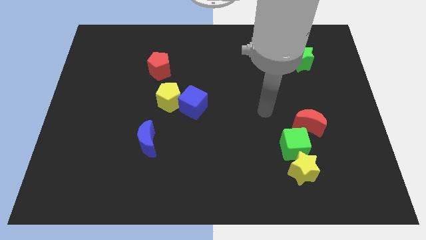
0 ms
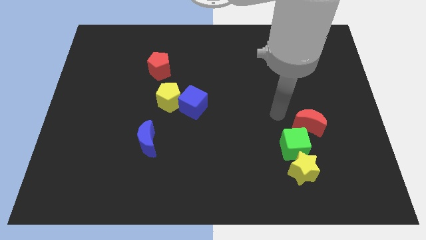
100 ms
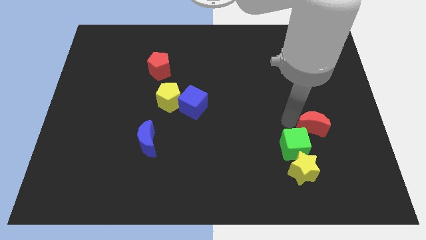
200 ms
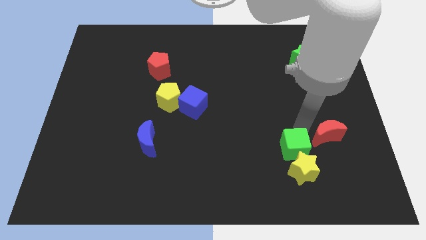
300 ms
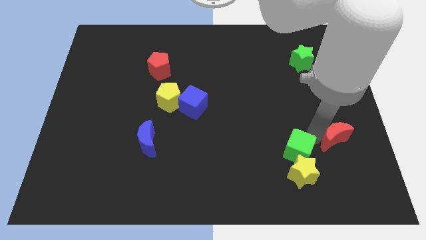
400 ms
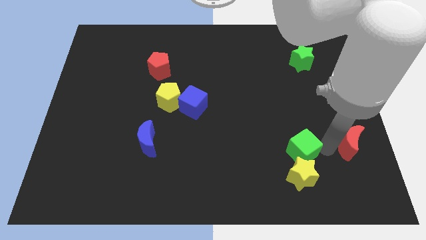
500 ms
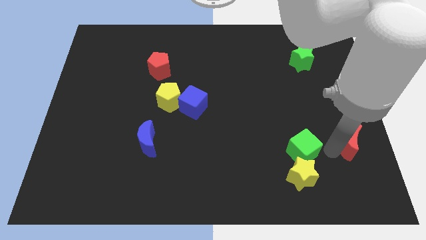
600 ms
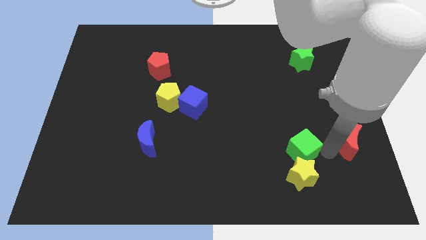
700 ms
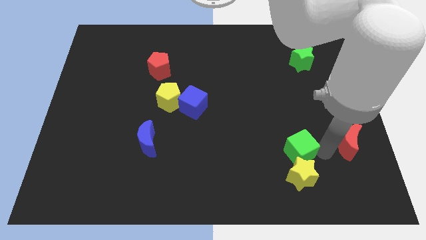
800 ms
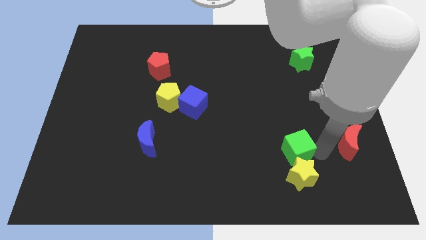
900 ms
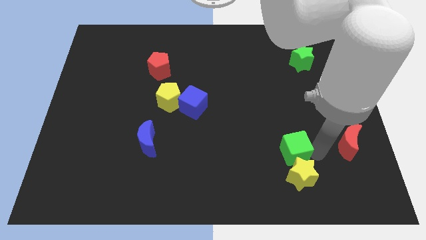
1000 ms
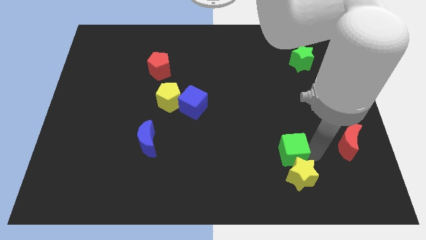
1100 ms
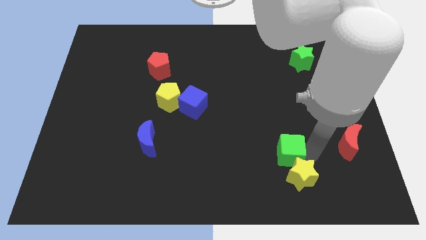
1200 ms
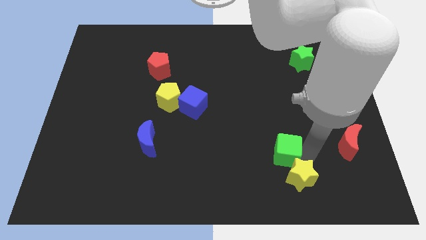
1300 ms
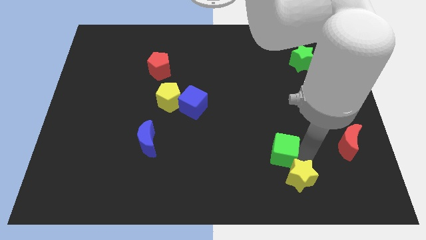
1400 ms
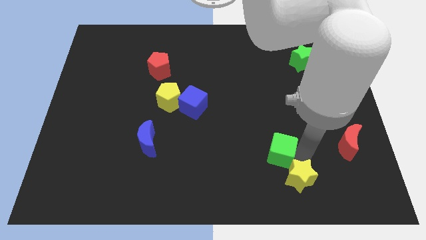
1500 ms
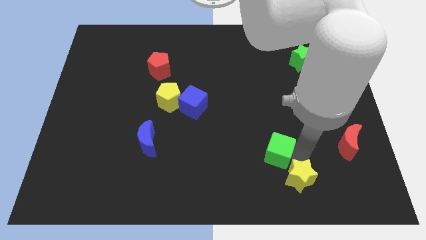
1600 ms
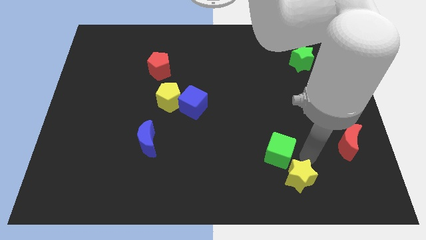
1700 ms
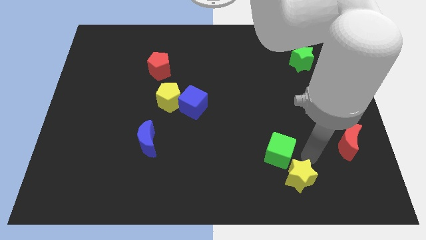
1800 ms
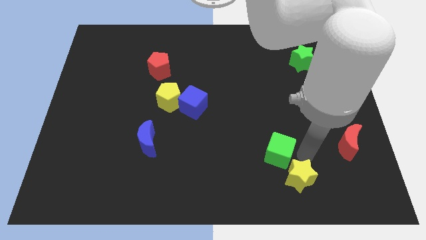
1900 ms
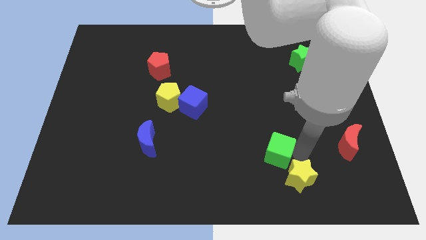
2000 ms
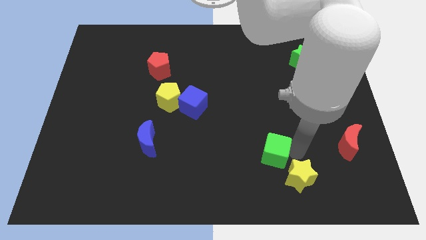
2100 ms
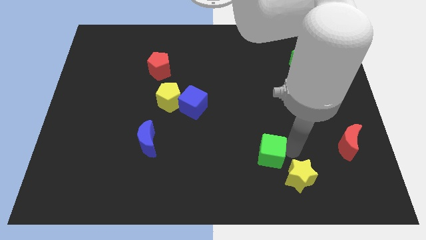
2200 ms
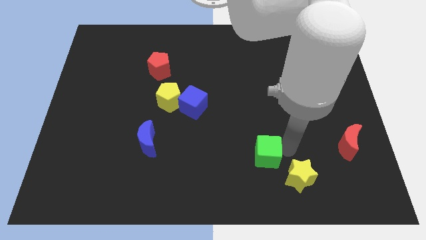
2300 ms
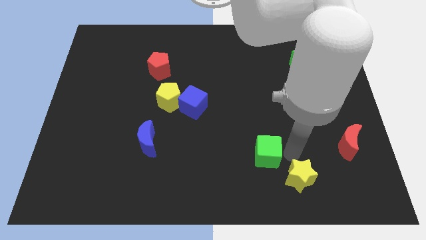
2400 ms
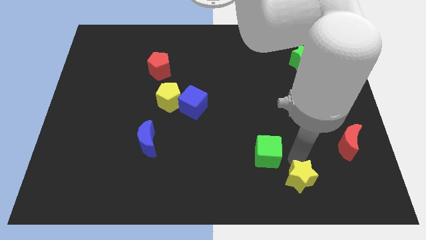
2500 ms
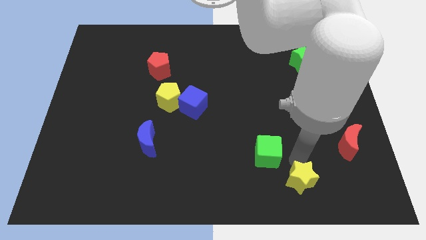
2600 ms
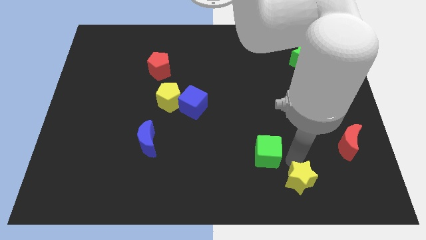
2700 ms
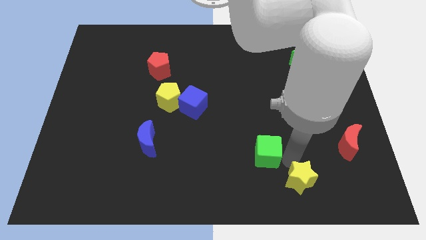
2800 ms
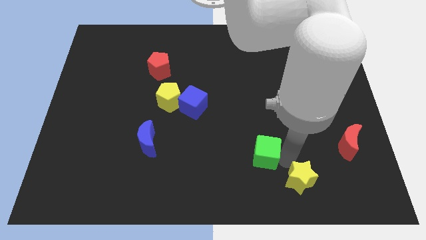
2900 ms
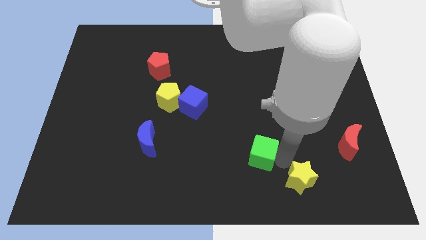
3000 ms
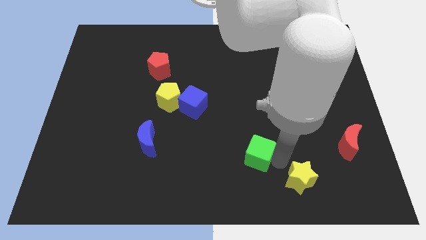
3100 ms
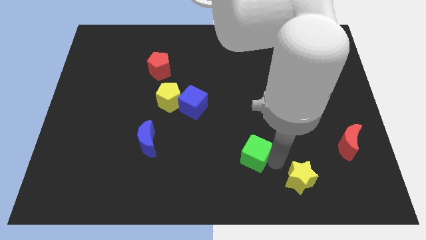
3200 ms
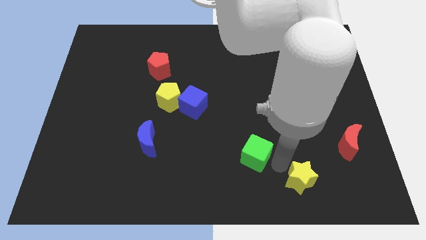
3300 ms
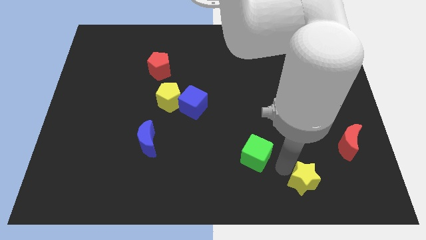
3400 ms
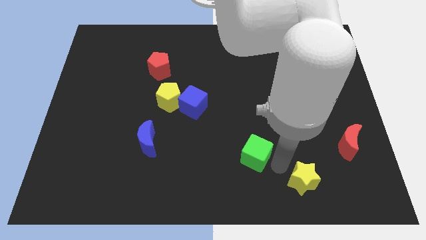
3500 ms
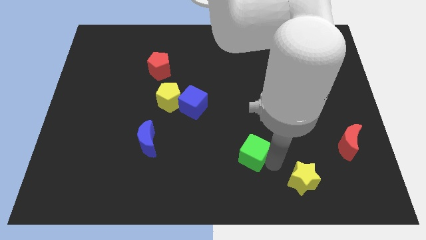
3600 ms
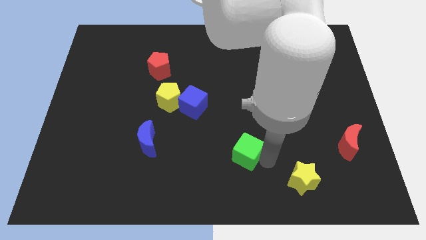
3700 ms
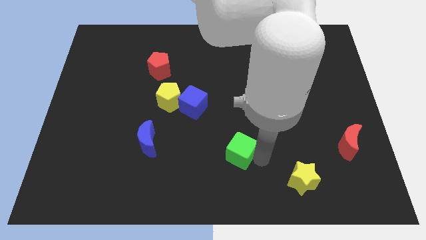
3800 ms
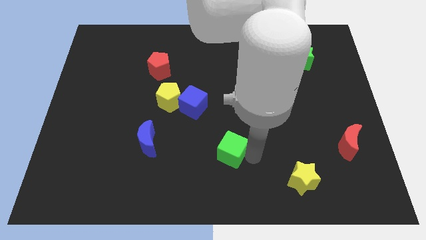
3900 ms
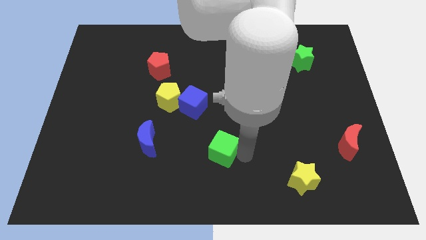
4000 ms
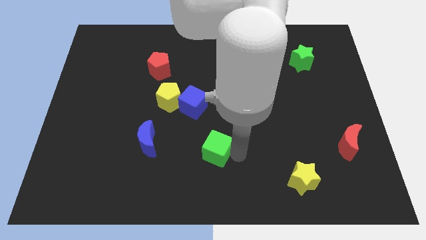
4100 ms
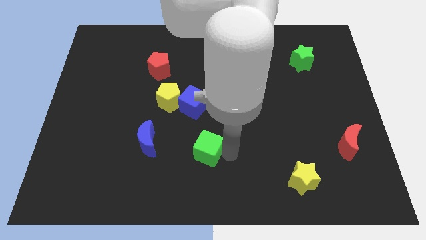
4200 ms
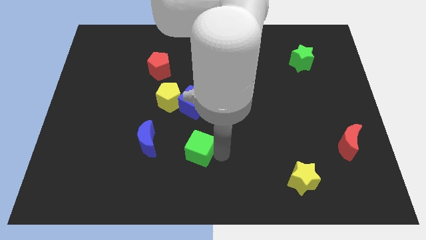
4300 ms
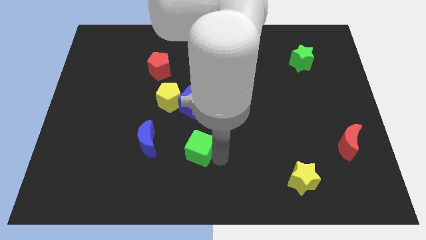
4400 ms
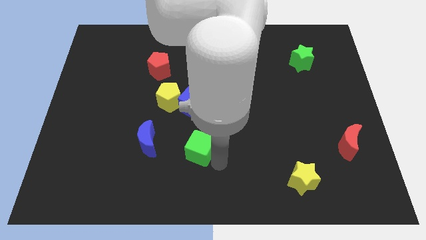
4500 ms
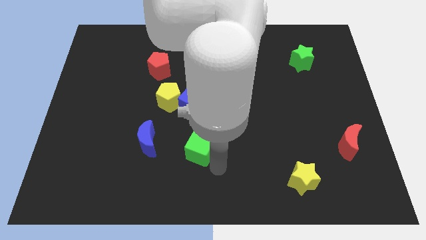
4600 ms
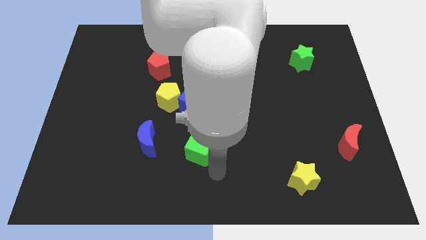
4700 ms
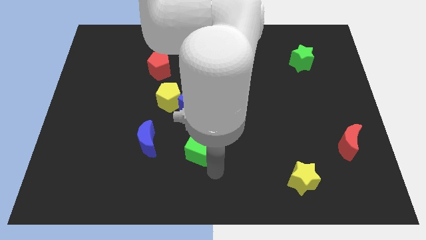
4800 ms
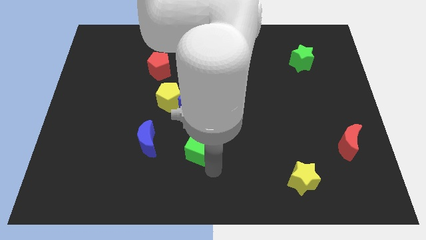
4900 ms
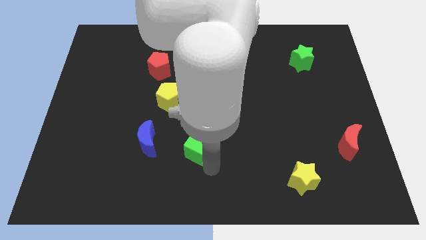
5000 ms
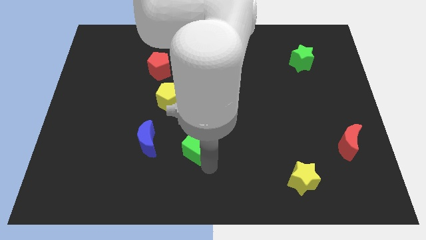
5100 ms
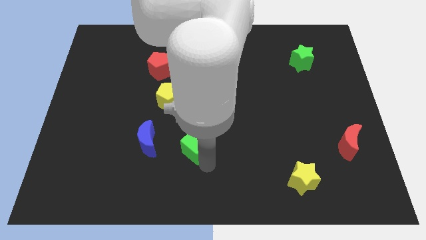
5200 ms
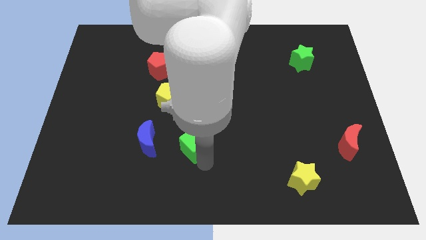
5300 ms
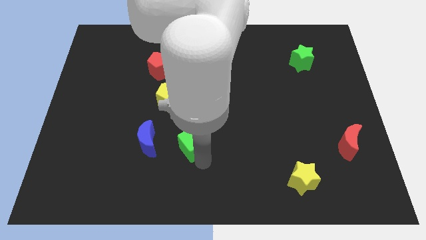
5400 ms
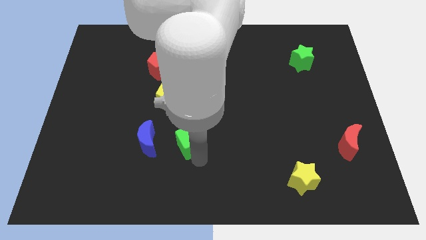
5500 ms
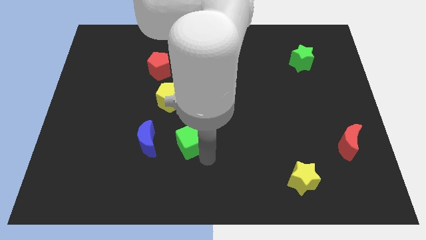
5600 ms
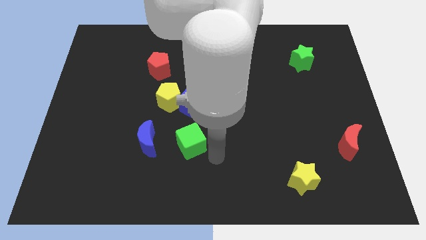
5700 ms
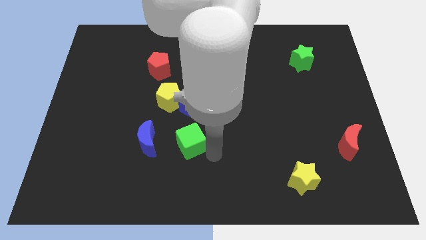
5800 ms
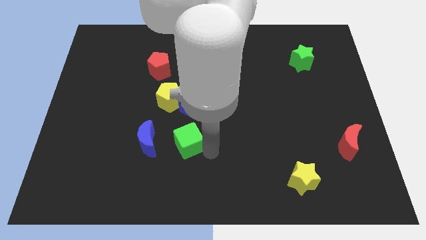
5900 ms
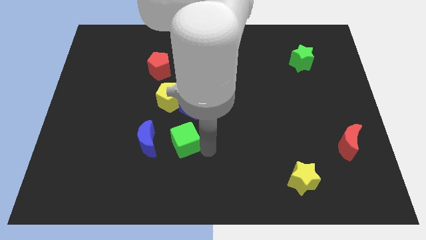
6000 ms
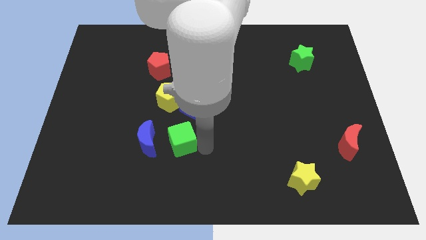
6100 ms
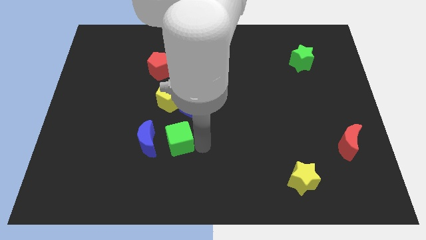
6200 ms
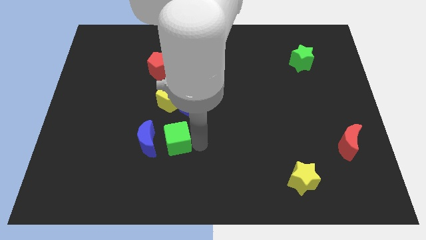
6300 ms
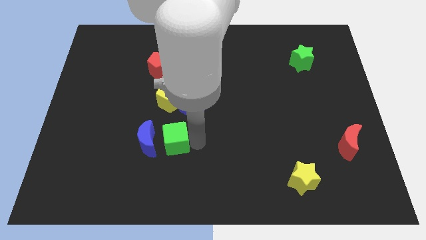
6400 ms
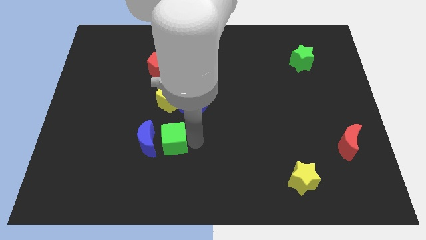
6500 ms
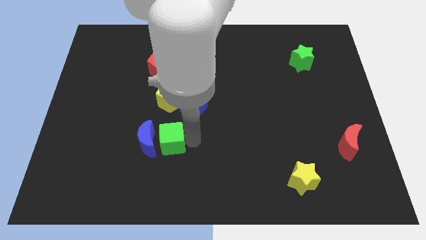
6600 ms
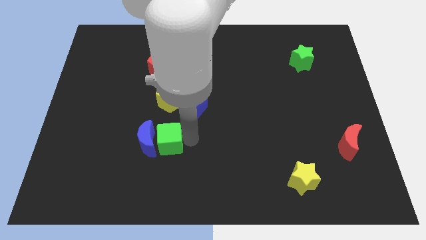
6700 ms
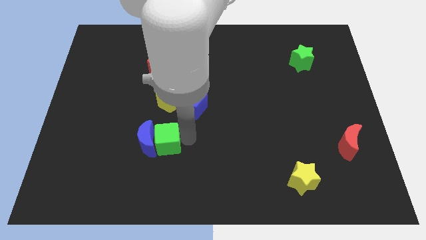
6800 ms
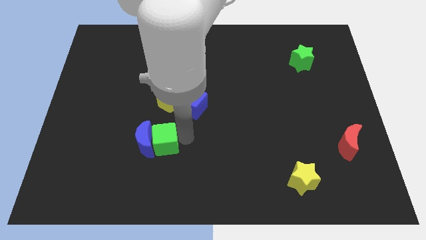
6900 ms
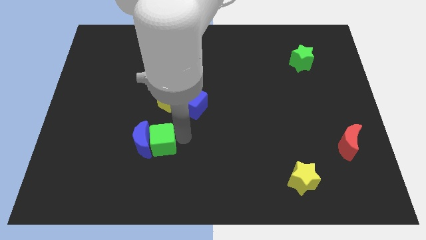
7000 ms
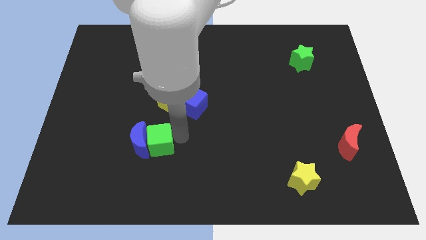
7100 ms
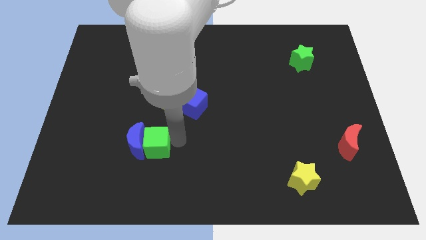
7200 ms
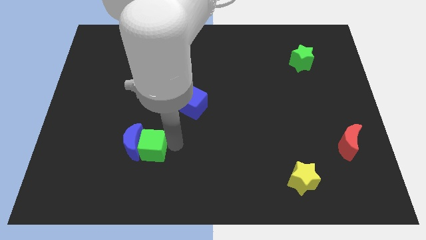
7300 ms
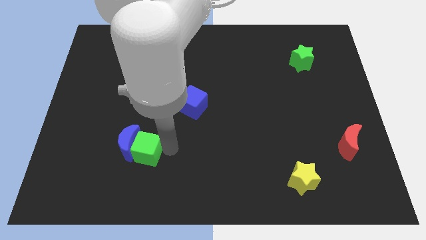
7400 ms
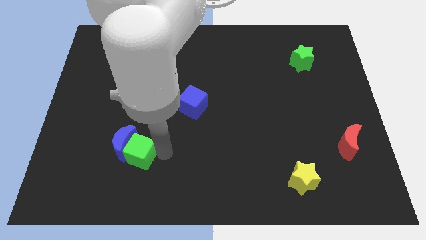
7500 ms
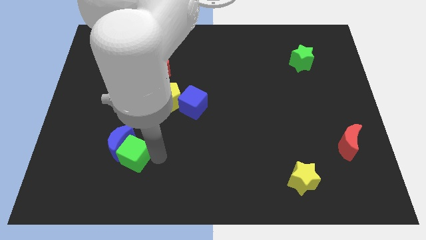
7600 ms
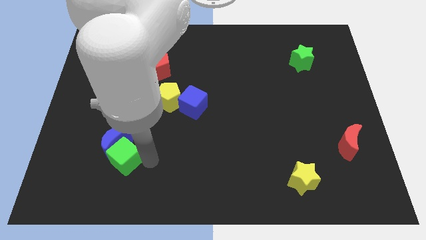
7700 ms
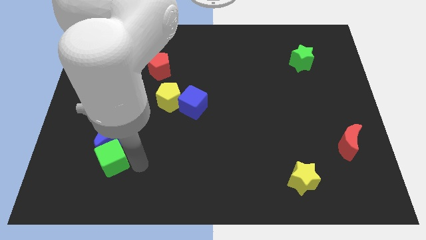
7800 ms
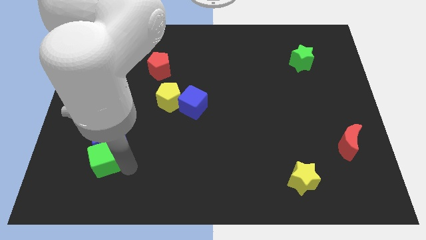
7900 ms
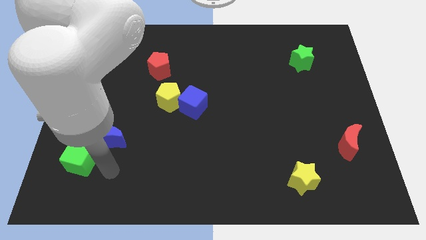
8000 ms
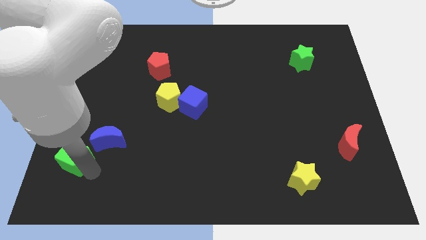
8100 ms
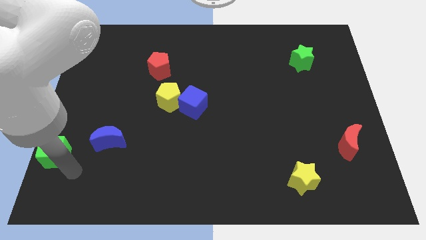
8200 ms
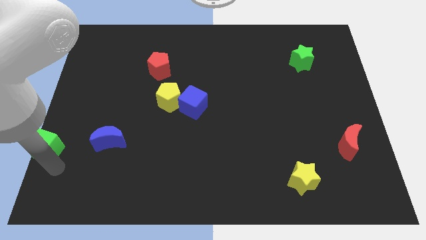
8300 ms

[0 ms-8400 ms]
slide the green cube to the left side of the board
